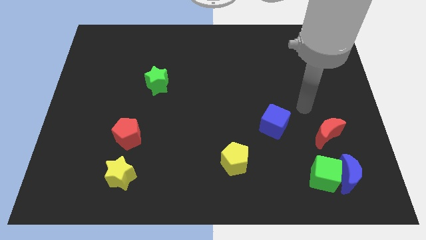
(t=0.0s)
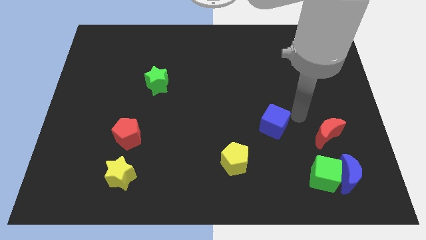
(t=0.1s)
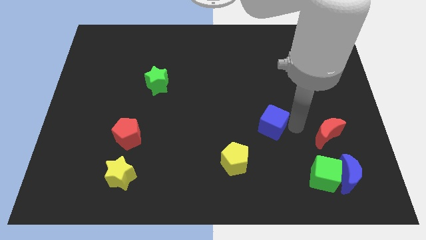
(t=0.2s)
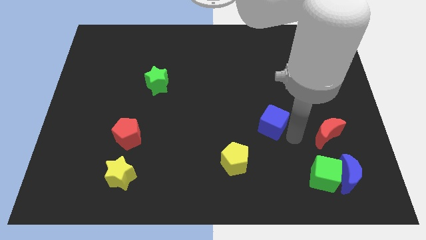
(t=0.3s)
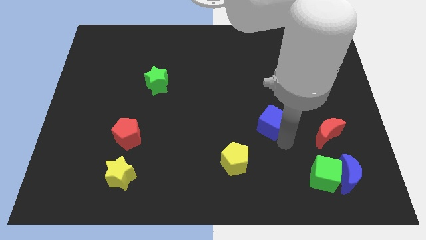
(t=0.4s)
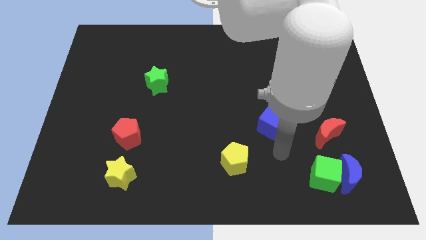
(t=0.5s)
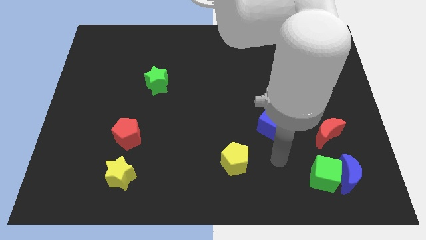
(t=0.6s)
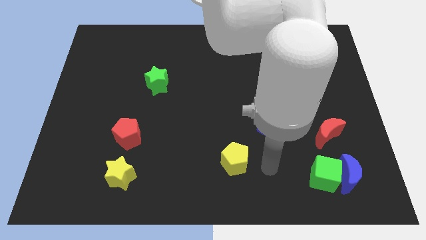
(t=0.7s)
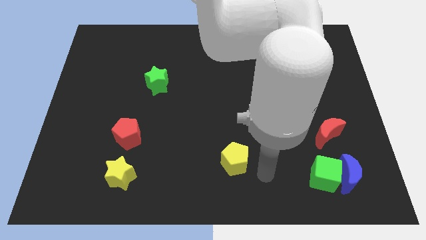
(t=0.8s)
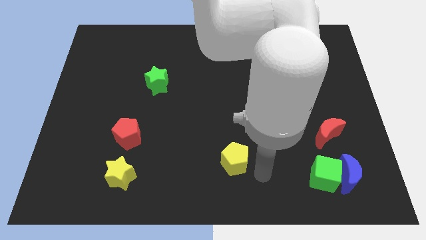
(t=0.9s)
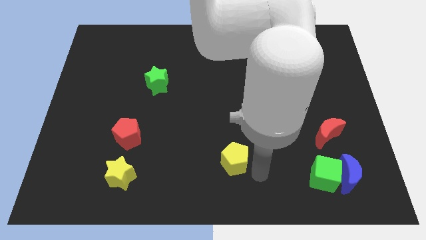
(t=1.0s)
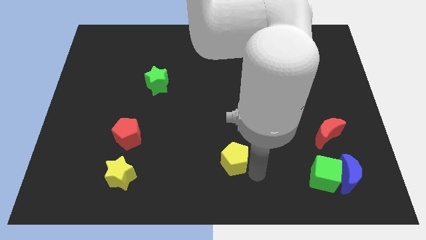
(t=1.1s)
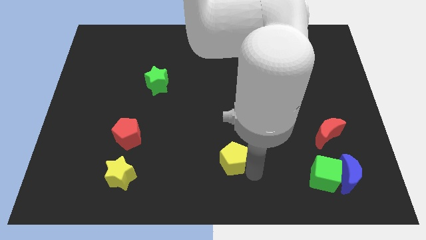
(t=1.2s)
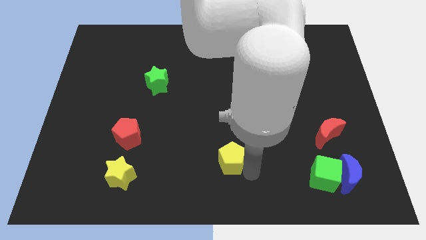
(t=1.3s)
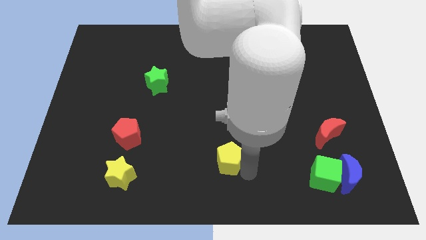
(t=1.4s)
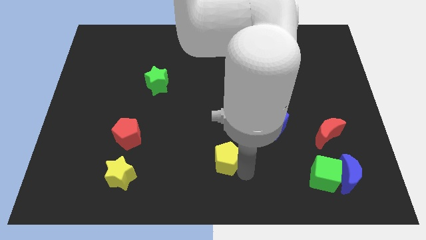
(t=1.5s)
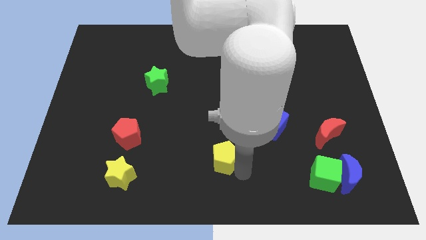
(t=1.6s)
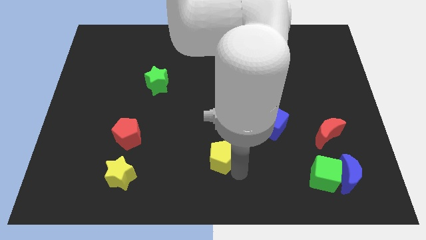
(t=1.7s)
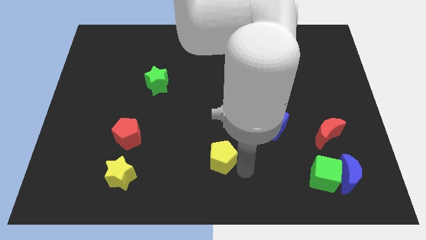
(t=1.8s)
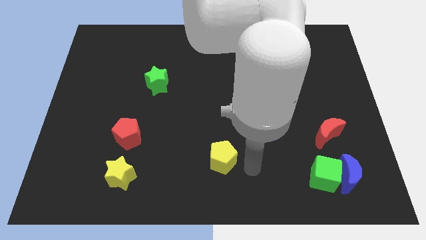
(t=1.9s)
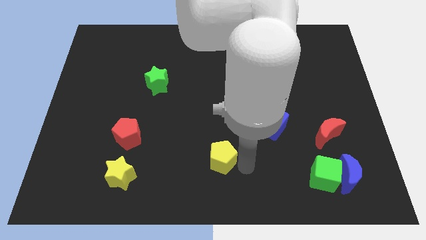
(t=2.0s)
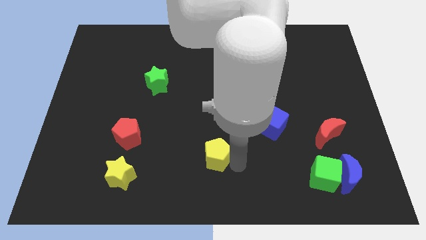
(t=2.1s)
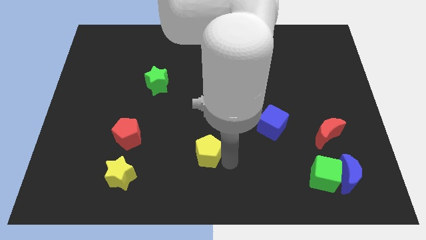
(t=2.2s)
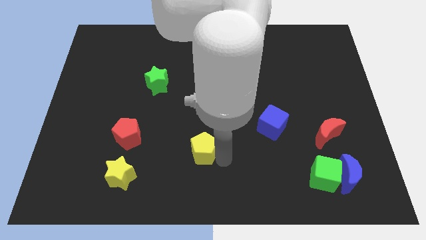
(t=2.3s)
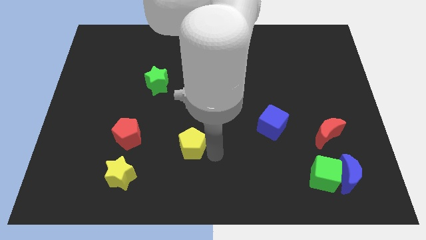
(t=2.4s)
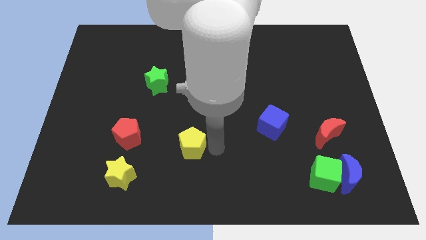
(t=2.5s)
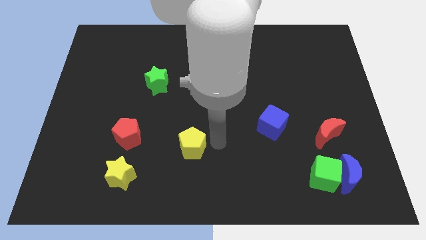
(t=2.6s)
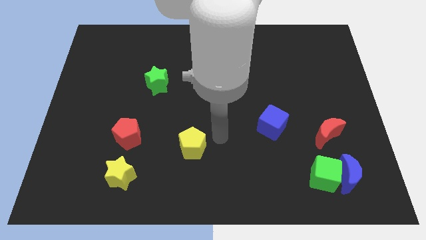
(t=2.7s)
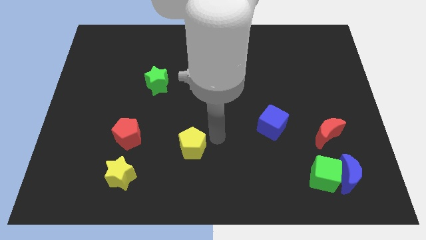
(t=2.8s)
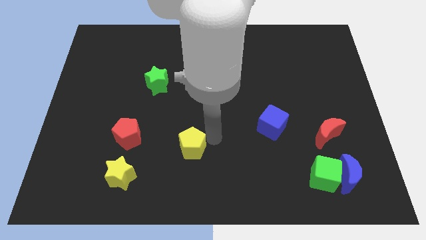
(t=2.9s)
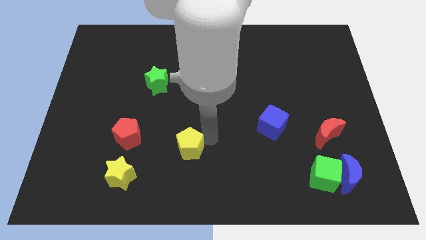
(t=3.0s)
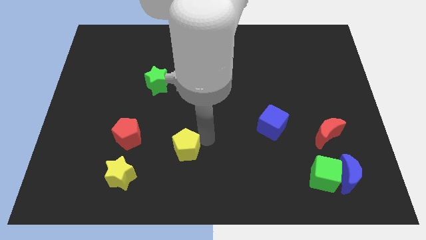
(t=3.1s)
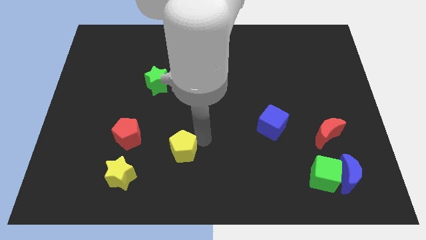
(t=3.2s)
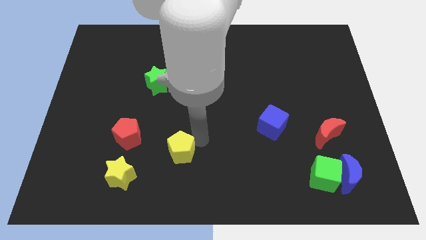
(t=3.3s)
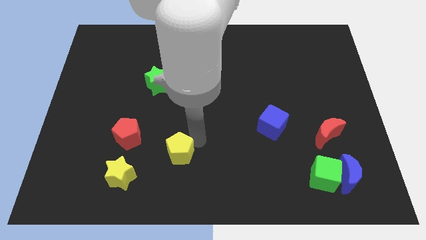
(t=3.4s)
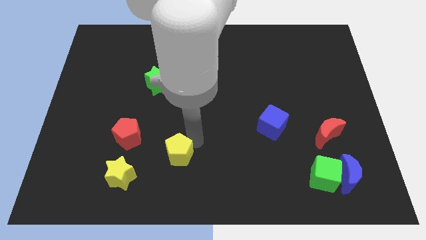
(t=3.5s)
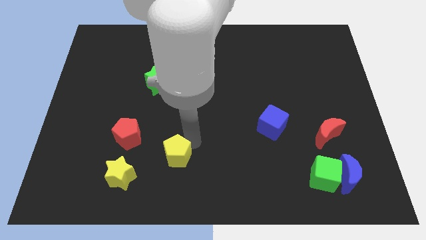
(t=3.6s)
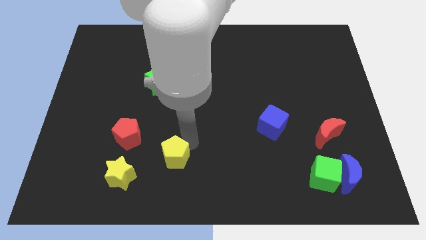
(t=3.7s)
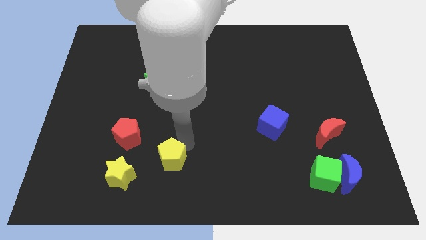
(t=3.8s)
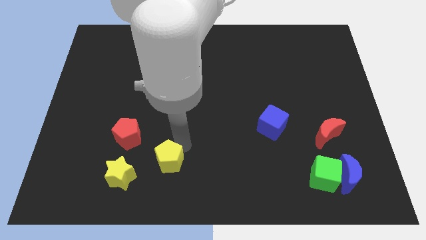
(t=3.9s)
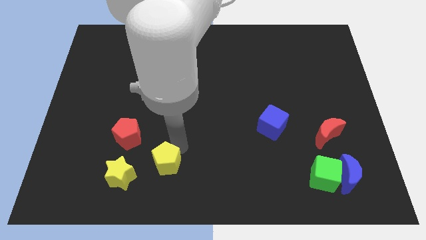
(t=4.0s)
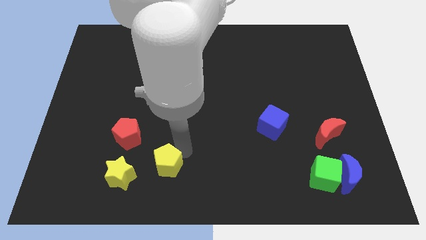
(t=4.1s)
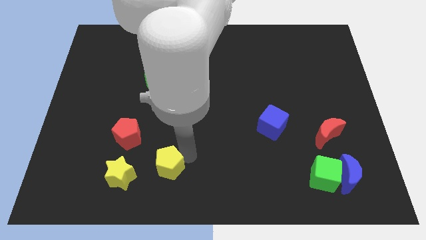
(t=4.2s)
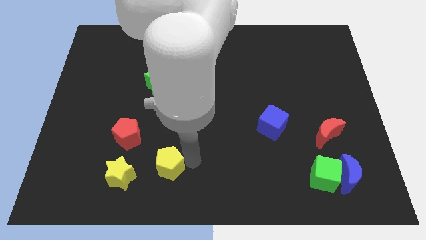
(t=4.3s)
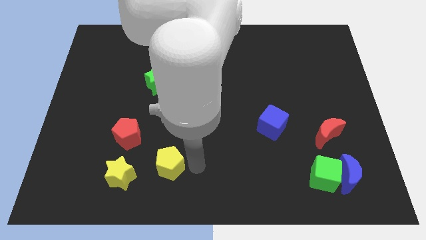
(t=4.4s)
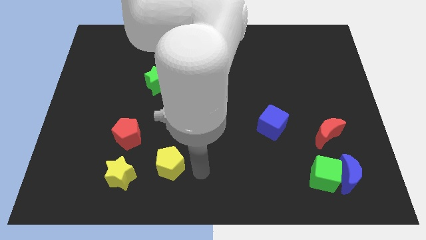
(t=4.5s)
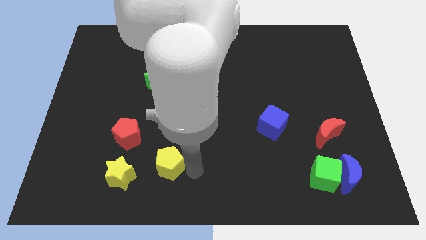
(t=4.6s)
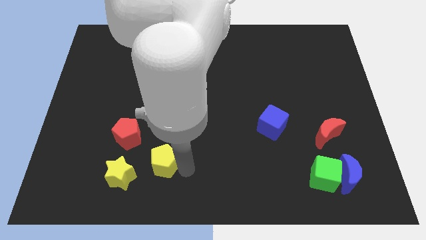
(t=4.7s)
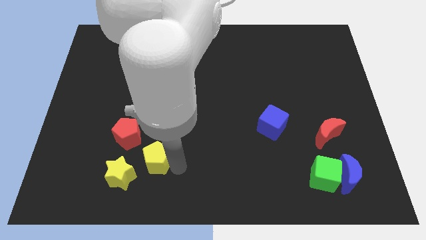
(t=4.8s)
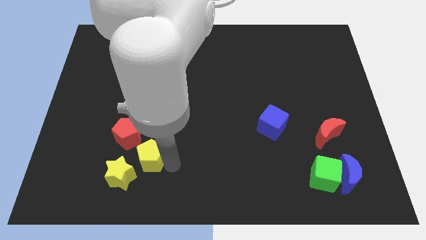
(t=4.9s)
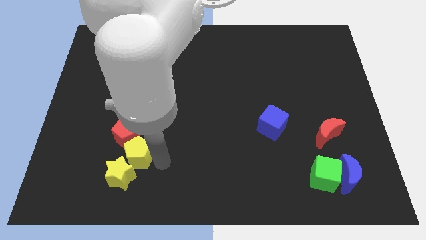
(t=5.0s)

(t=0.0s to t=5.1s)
move the yellow pentagon left

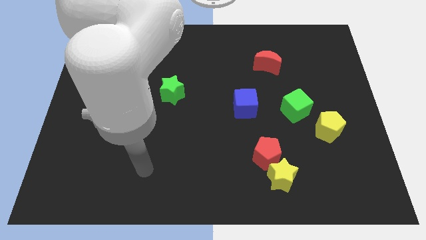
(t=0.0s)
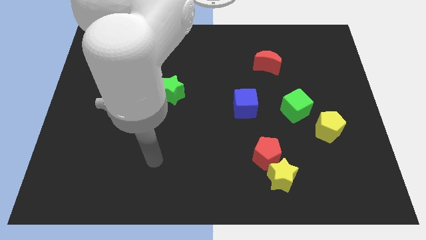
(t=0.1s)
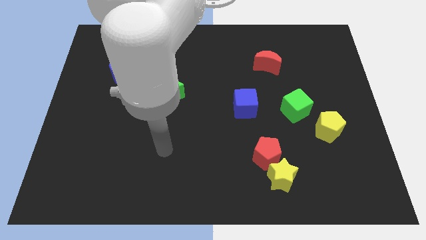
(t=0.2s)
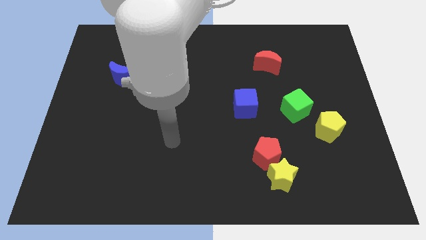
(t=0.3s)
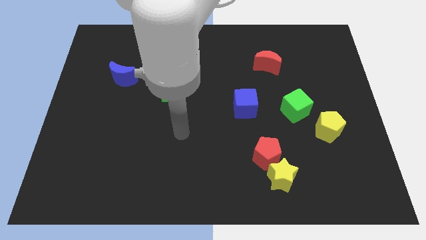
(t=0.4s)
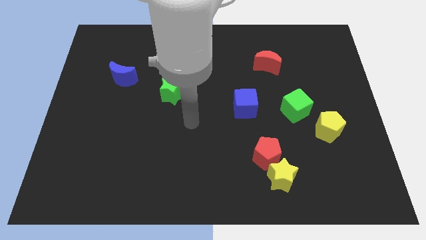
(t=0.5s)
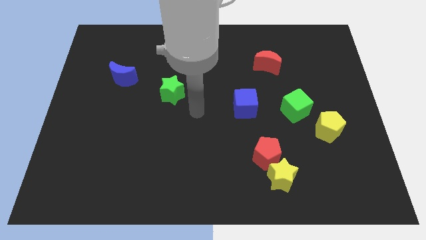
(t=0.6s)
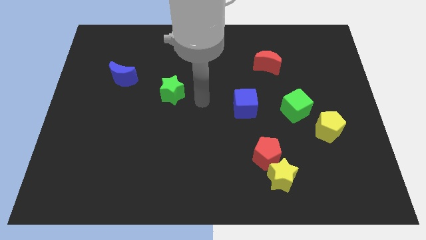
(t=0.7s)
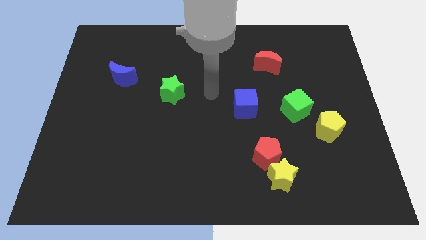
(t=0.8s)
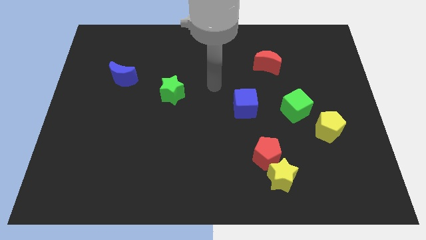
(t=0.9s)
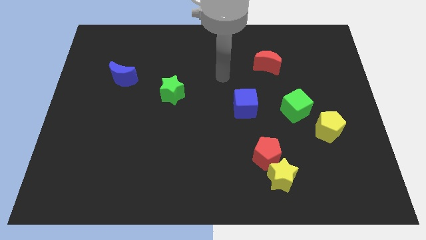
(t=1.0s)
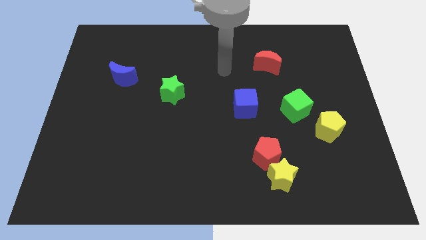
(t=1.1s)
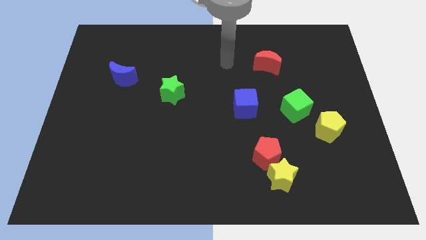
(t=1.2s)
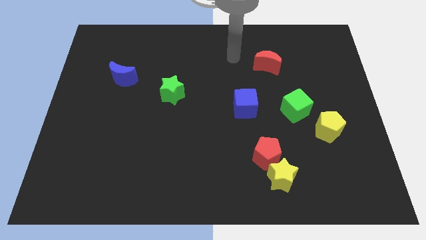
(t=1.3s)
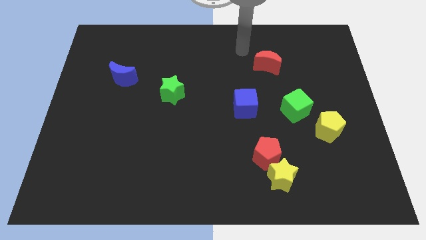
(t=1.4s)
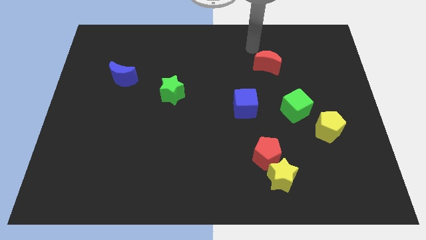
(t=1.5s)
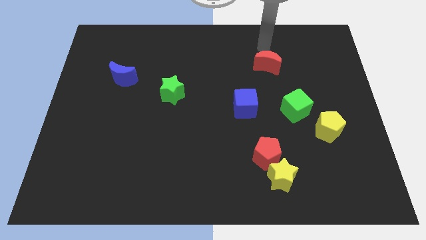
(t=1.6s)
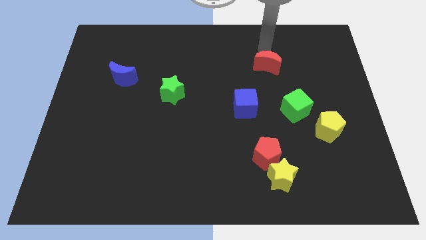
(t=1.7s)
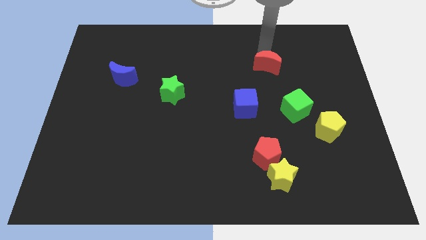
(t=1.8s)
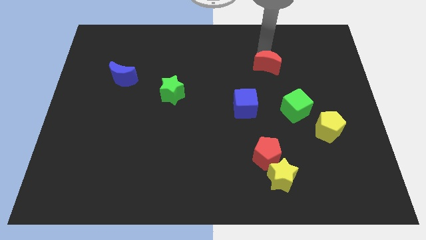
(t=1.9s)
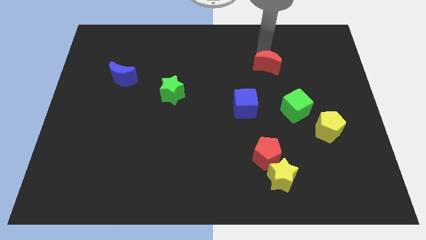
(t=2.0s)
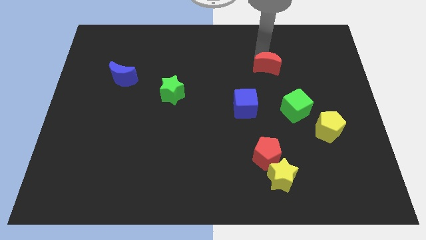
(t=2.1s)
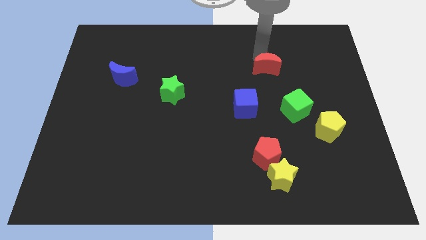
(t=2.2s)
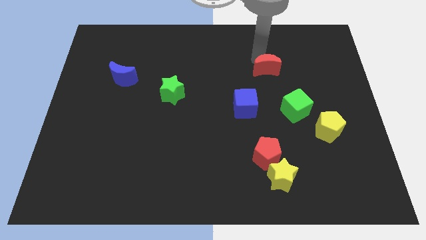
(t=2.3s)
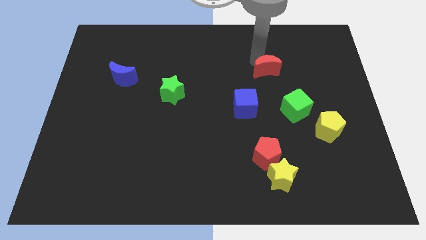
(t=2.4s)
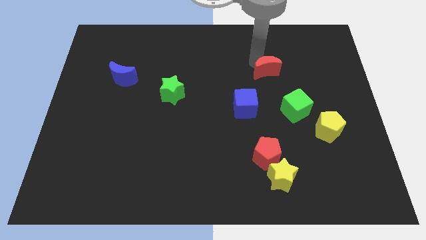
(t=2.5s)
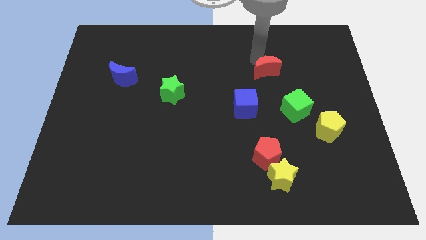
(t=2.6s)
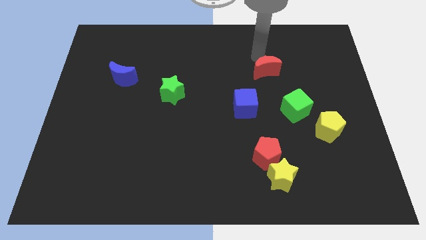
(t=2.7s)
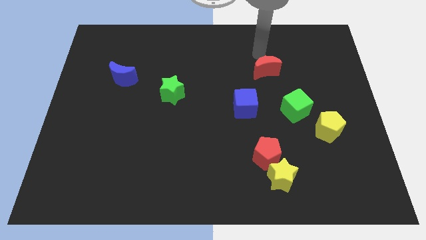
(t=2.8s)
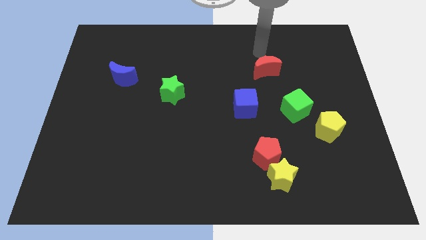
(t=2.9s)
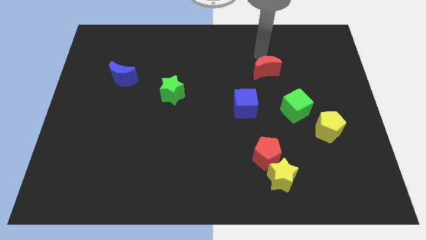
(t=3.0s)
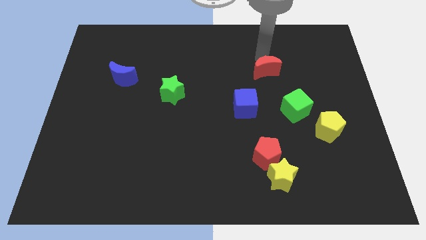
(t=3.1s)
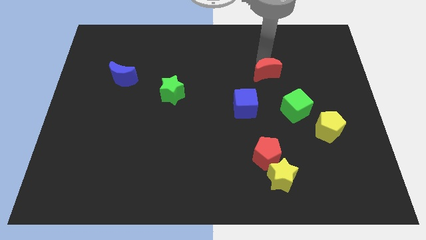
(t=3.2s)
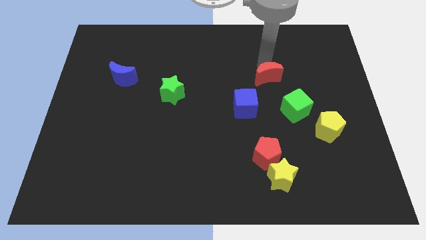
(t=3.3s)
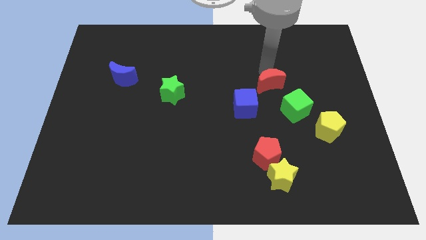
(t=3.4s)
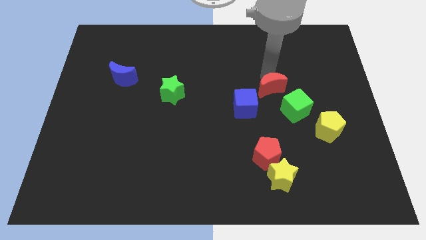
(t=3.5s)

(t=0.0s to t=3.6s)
push the red moon a little bit downwards
